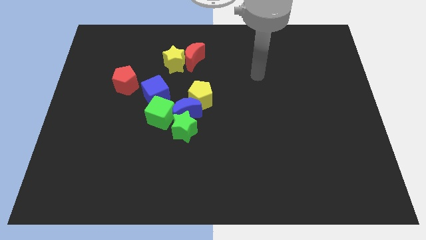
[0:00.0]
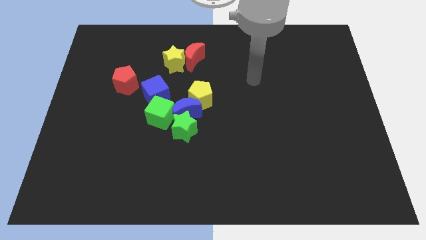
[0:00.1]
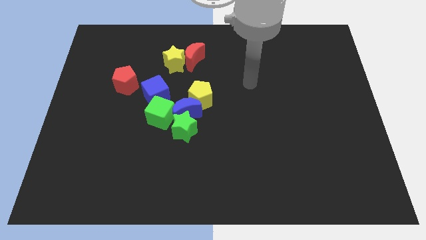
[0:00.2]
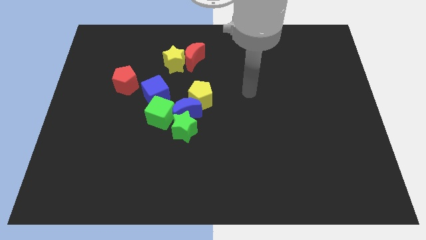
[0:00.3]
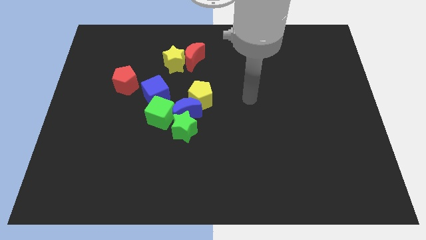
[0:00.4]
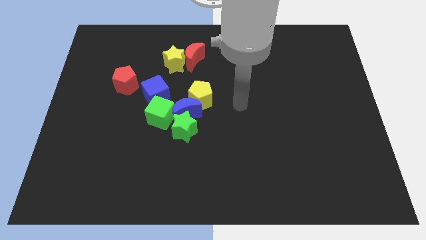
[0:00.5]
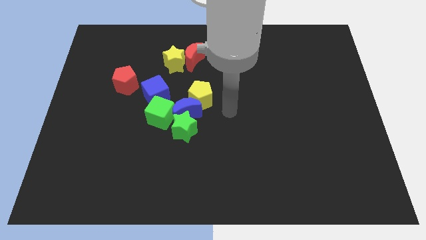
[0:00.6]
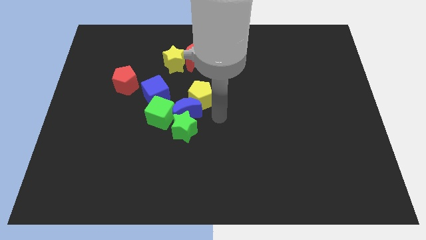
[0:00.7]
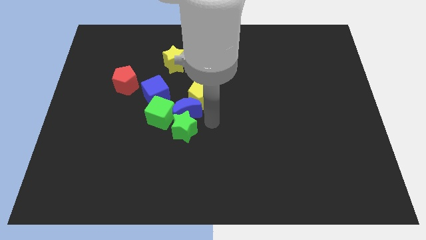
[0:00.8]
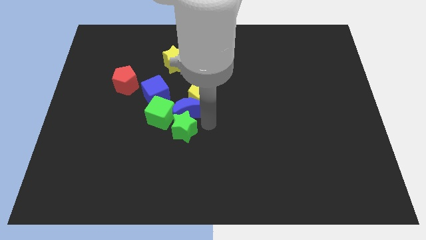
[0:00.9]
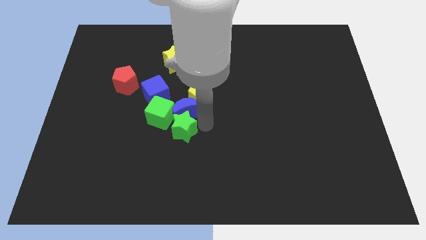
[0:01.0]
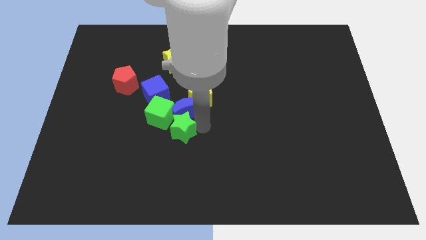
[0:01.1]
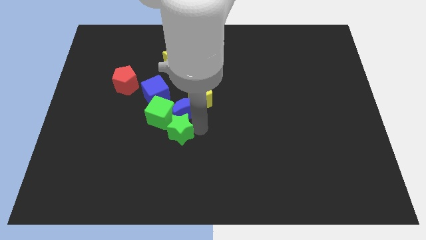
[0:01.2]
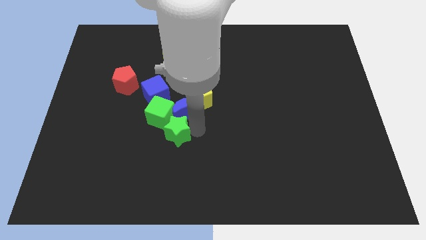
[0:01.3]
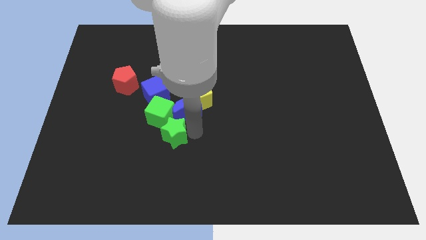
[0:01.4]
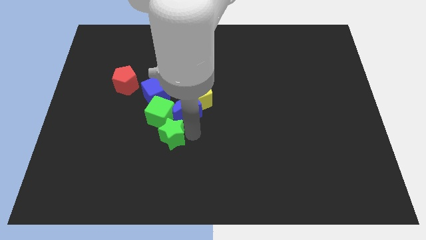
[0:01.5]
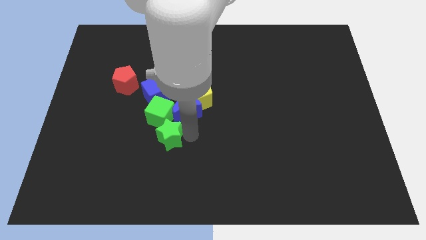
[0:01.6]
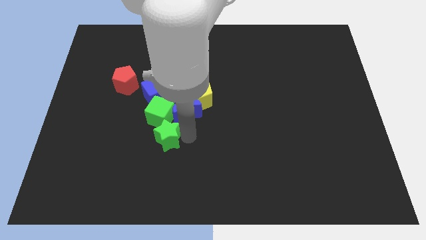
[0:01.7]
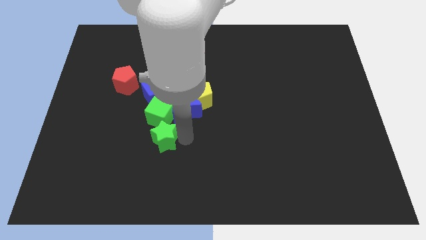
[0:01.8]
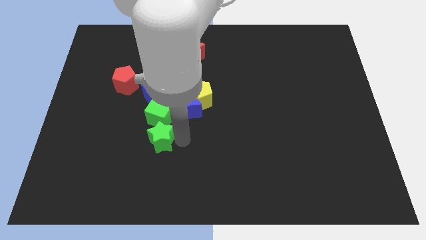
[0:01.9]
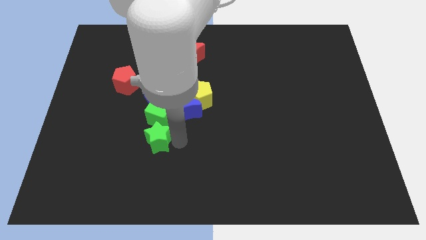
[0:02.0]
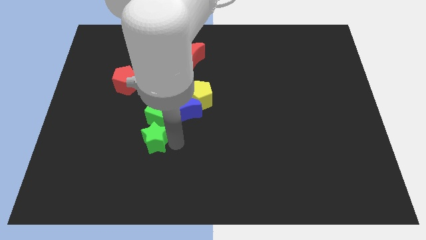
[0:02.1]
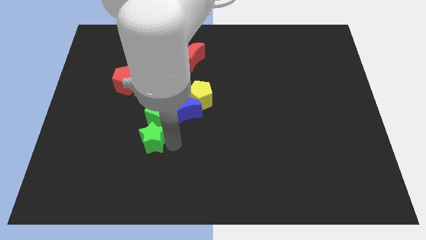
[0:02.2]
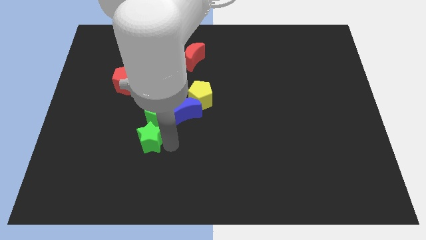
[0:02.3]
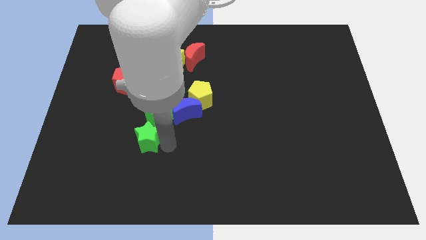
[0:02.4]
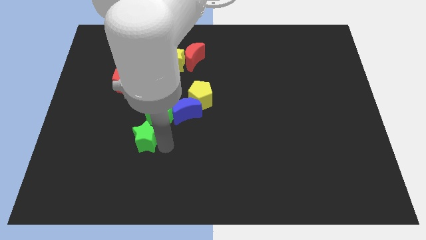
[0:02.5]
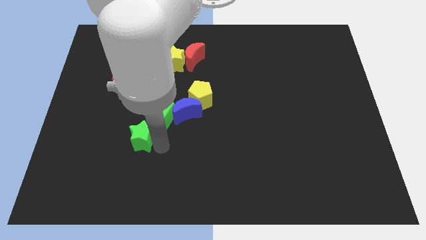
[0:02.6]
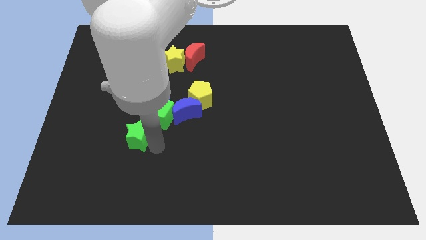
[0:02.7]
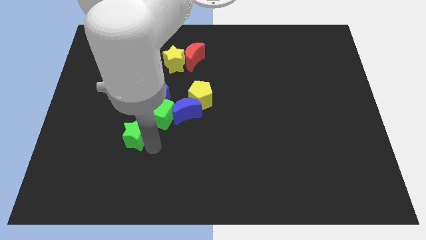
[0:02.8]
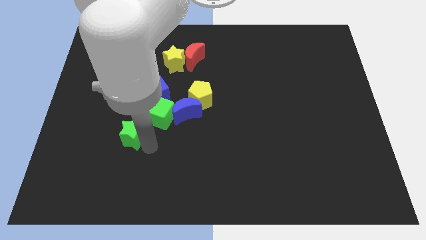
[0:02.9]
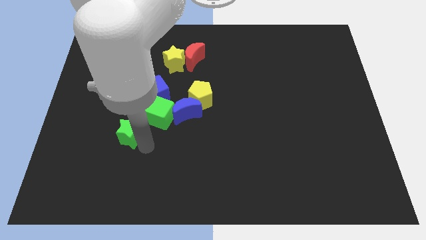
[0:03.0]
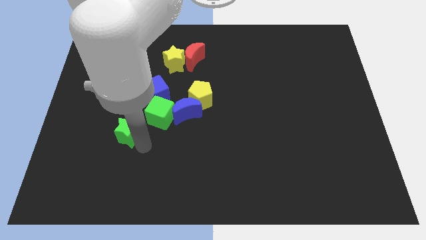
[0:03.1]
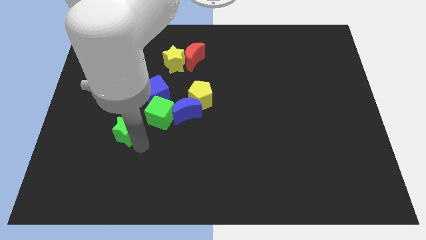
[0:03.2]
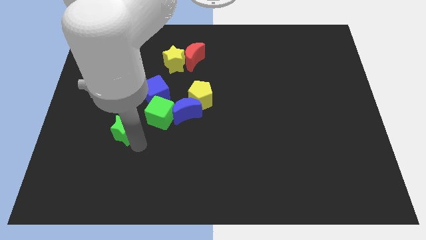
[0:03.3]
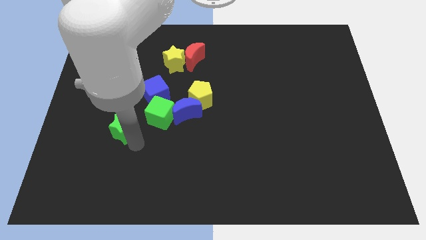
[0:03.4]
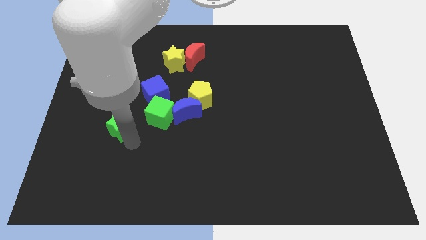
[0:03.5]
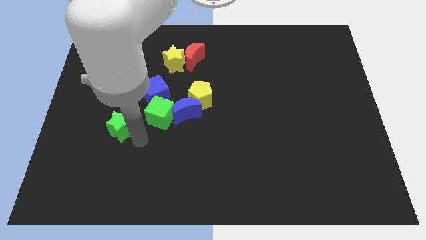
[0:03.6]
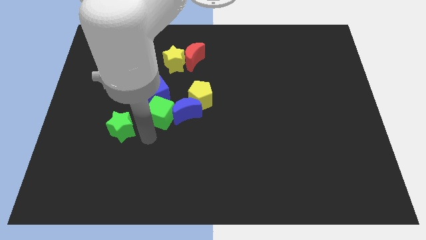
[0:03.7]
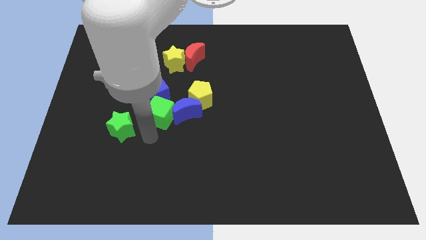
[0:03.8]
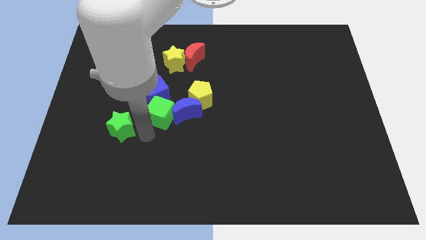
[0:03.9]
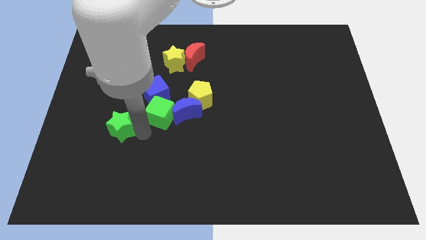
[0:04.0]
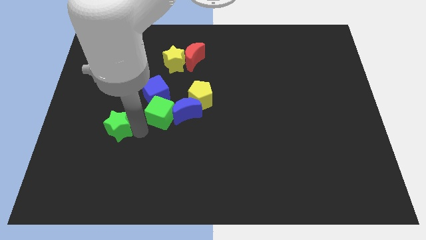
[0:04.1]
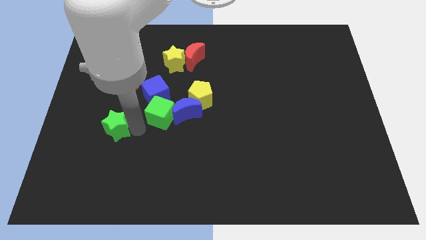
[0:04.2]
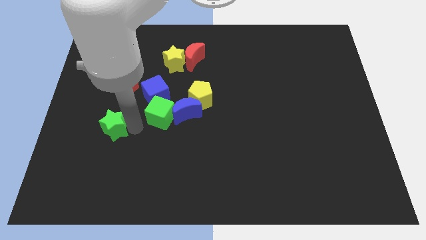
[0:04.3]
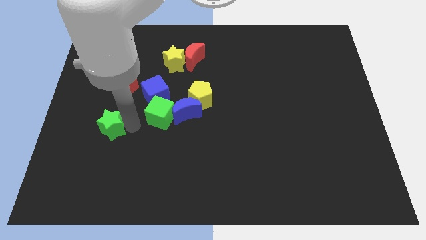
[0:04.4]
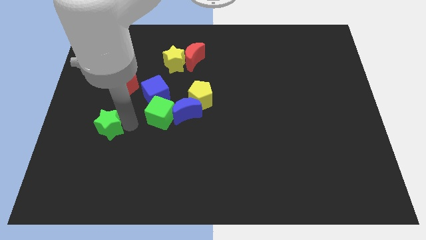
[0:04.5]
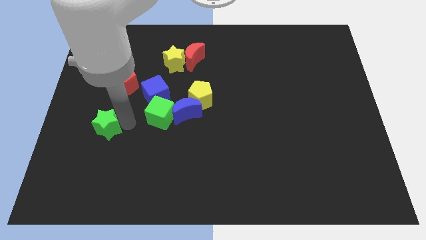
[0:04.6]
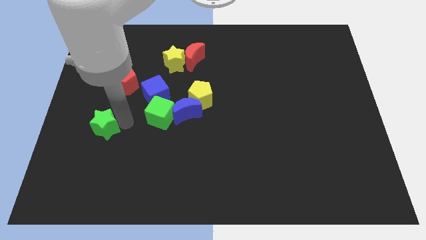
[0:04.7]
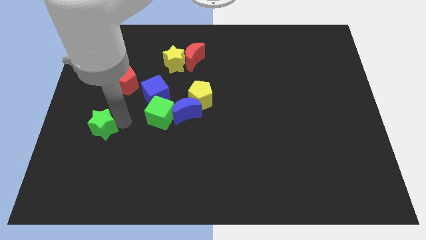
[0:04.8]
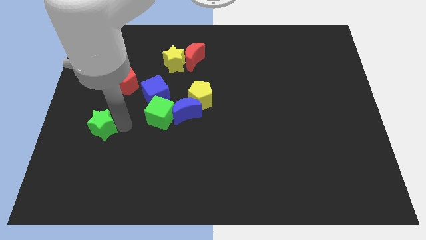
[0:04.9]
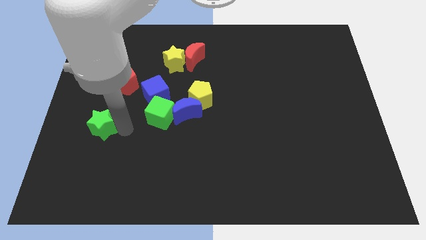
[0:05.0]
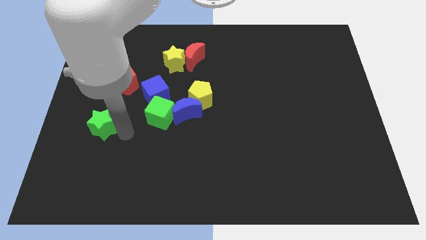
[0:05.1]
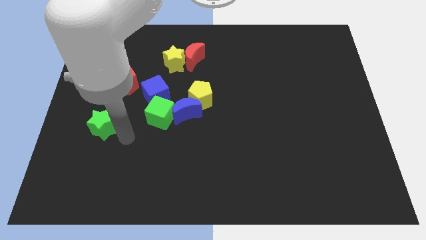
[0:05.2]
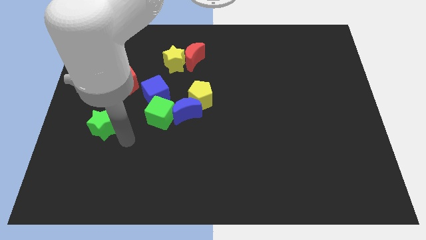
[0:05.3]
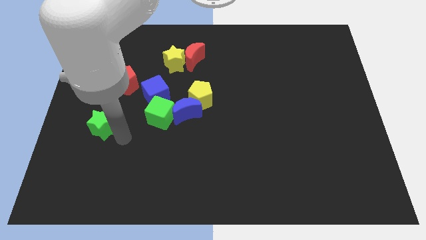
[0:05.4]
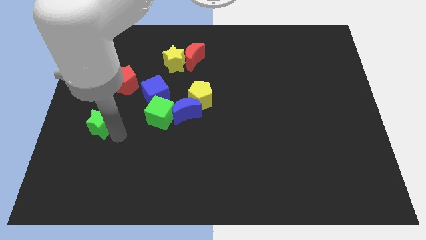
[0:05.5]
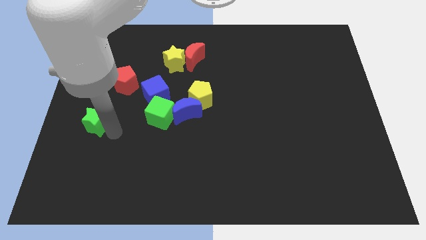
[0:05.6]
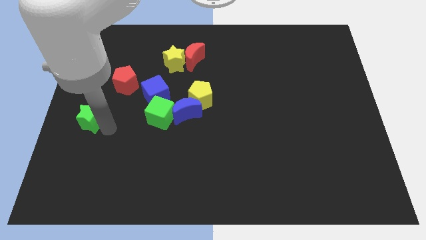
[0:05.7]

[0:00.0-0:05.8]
slide the green star to the left side
